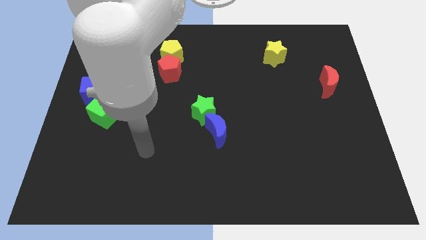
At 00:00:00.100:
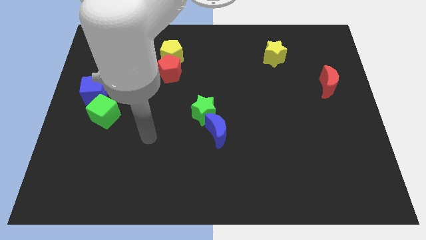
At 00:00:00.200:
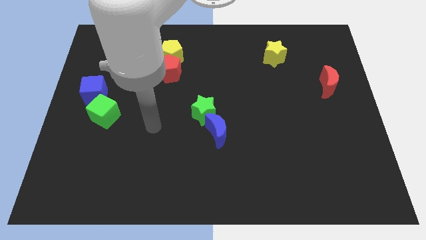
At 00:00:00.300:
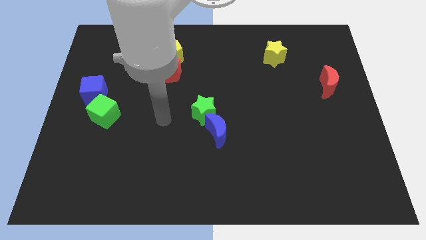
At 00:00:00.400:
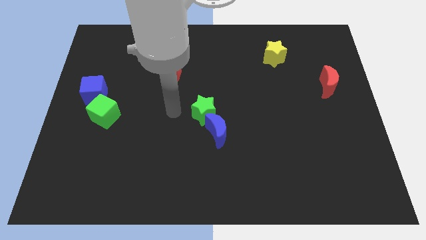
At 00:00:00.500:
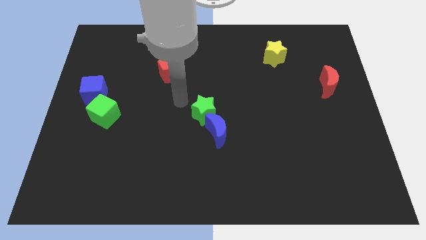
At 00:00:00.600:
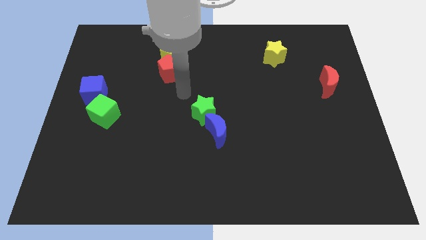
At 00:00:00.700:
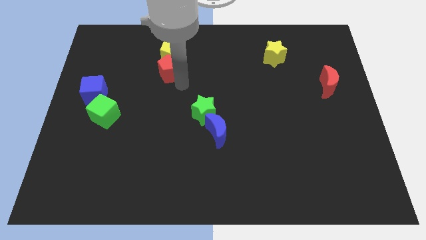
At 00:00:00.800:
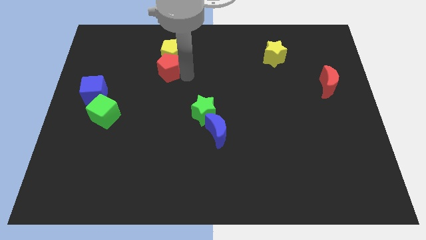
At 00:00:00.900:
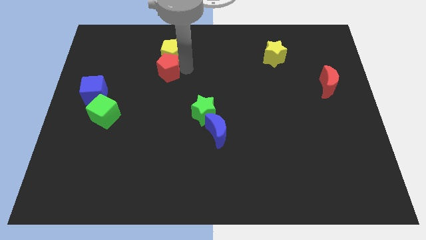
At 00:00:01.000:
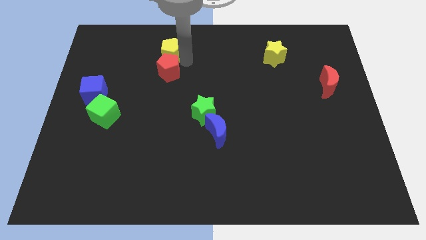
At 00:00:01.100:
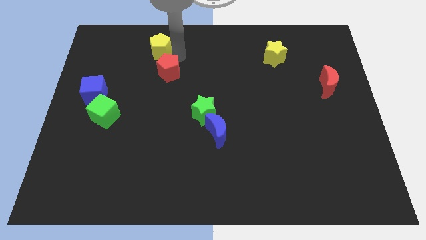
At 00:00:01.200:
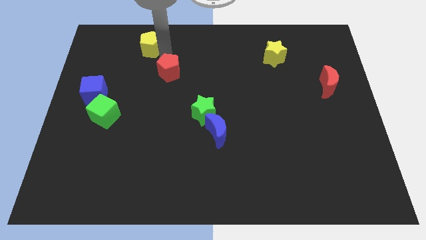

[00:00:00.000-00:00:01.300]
separate the red pentagon from the yellow pentagon

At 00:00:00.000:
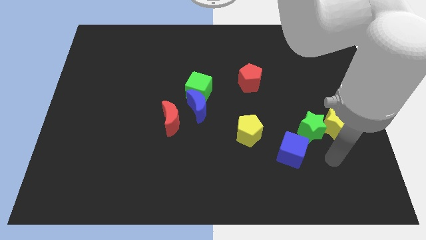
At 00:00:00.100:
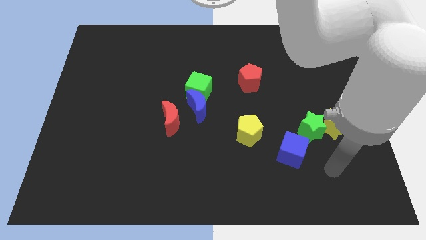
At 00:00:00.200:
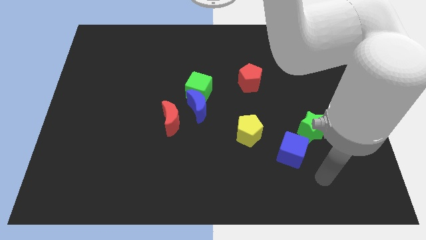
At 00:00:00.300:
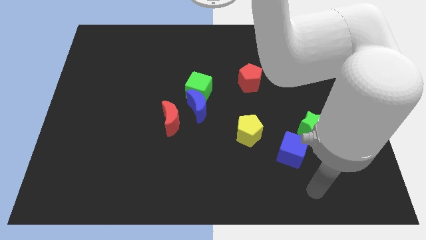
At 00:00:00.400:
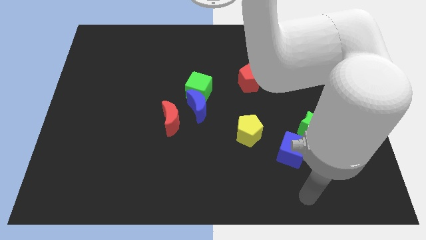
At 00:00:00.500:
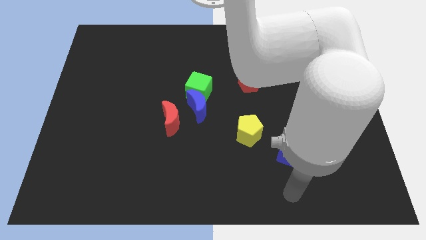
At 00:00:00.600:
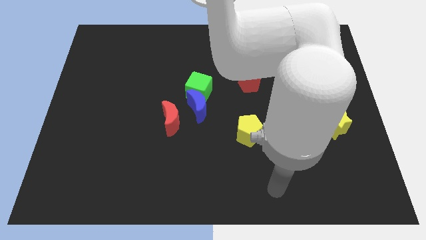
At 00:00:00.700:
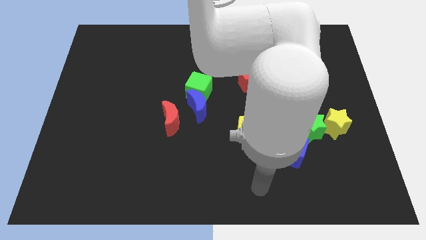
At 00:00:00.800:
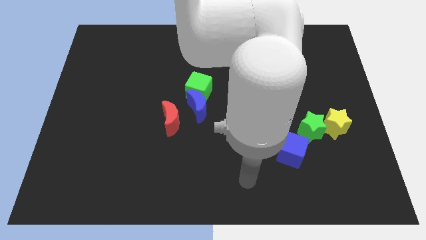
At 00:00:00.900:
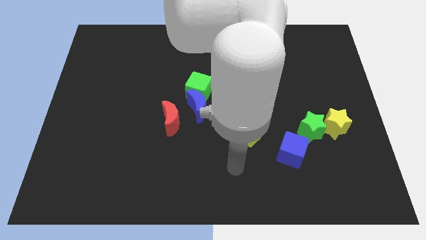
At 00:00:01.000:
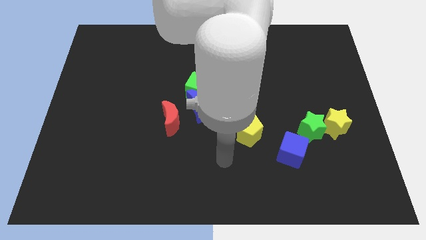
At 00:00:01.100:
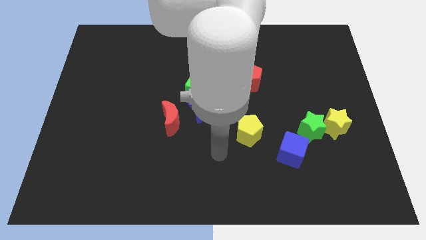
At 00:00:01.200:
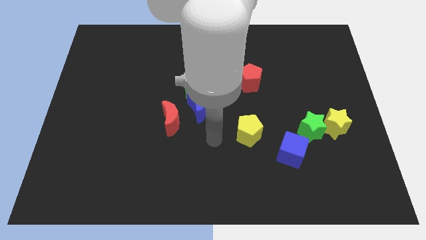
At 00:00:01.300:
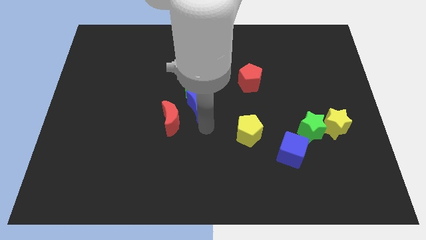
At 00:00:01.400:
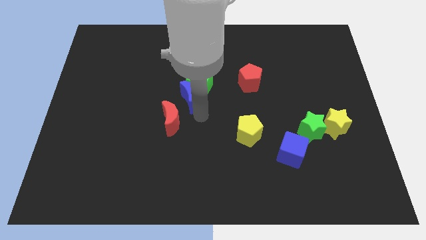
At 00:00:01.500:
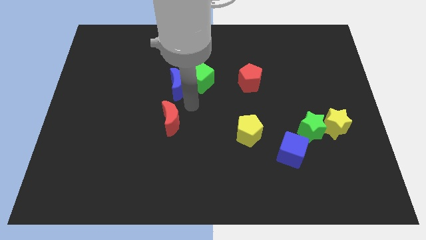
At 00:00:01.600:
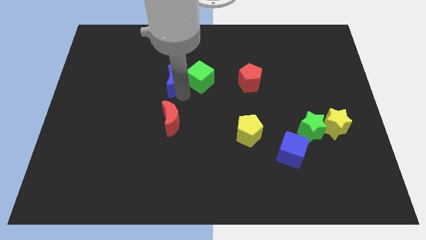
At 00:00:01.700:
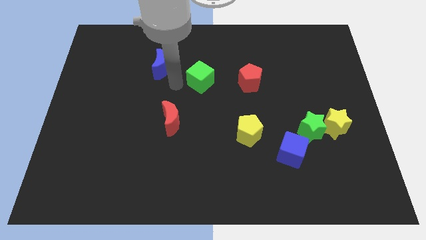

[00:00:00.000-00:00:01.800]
move the green cube away from the blue moon

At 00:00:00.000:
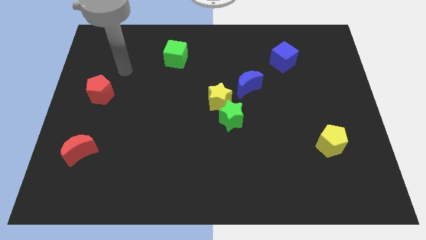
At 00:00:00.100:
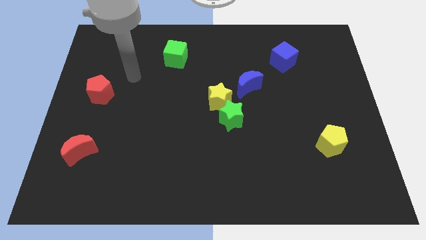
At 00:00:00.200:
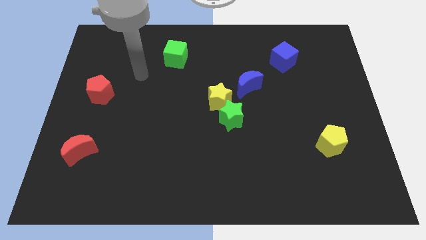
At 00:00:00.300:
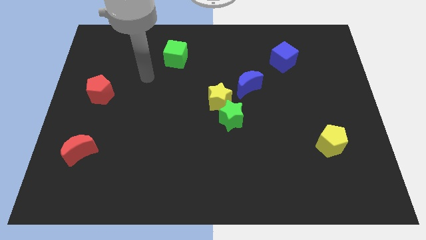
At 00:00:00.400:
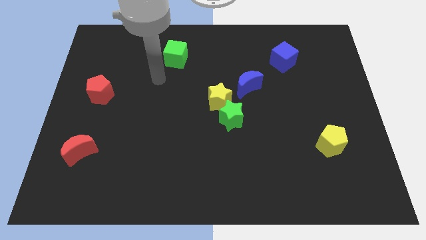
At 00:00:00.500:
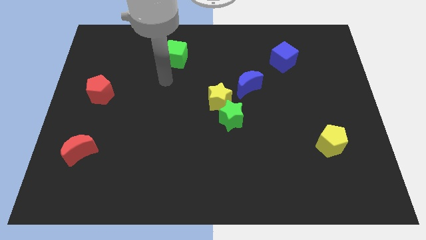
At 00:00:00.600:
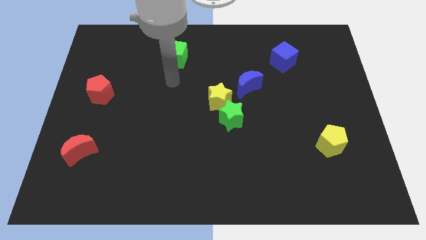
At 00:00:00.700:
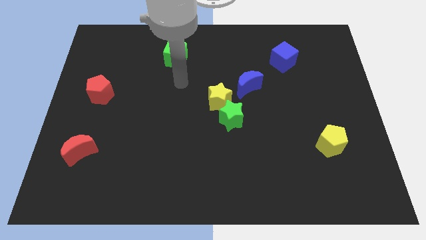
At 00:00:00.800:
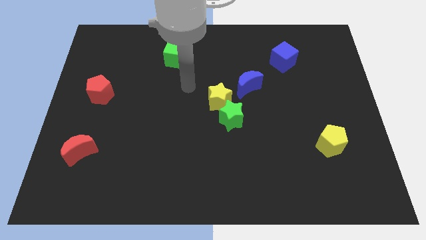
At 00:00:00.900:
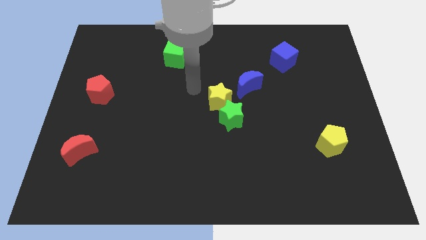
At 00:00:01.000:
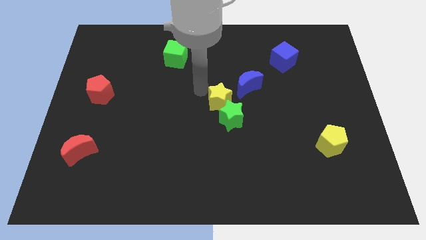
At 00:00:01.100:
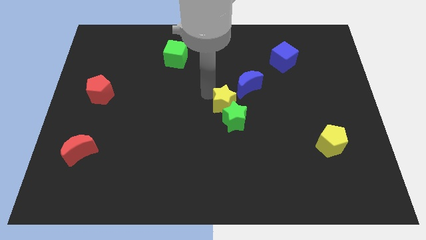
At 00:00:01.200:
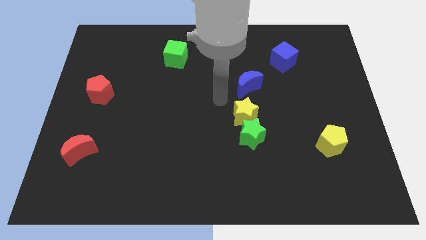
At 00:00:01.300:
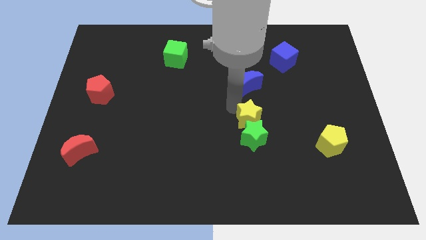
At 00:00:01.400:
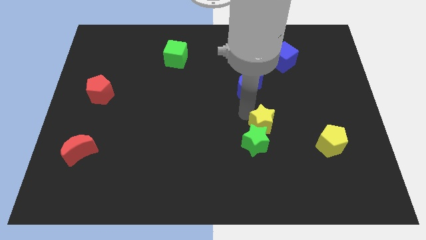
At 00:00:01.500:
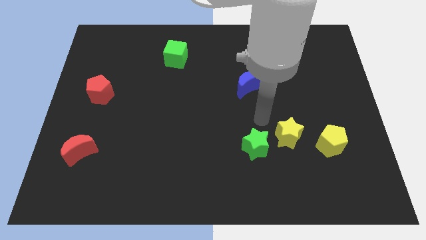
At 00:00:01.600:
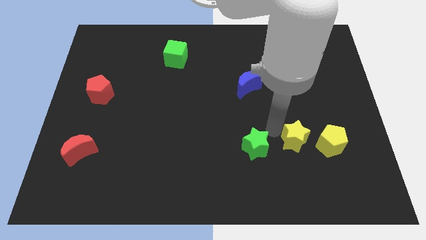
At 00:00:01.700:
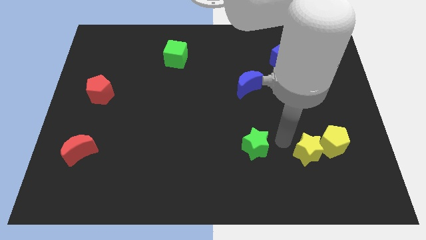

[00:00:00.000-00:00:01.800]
separate the green star from the yellow star

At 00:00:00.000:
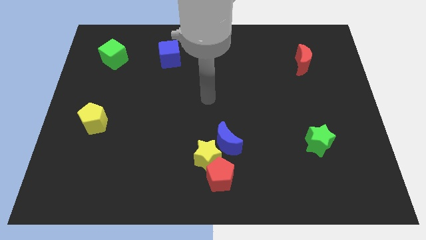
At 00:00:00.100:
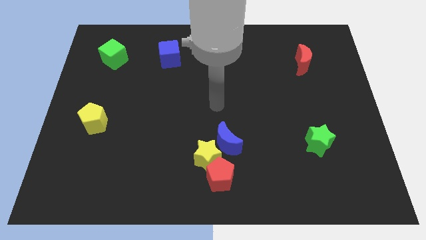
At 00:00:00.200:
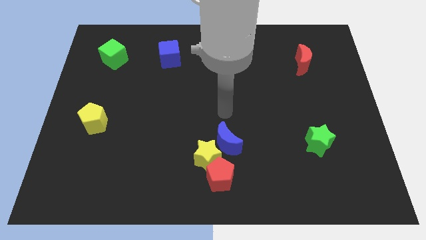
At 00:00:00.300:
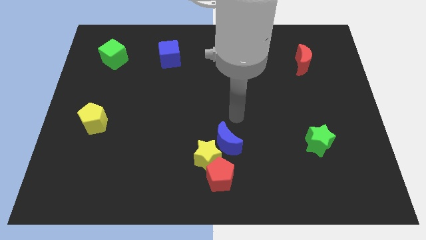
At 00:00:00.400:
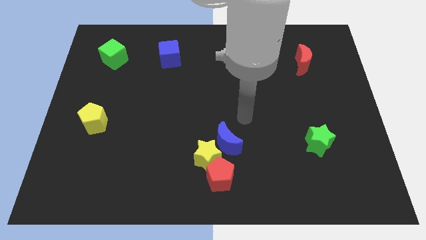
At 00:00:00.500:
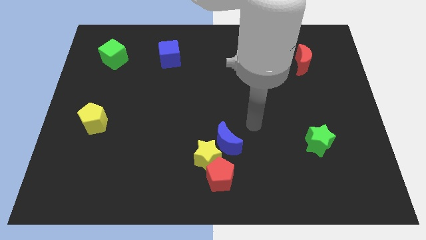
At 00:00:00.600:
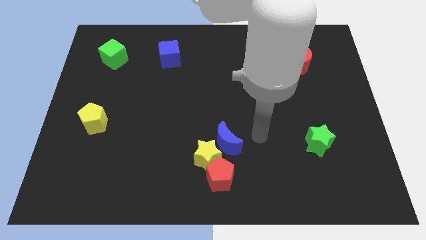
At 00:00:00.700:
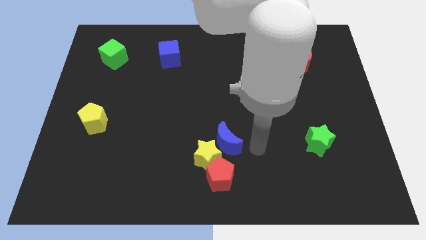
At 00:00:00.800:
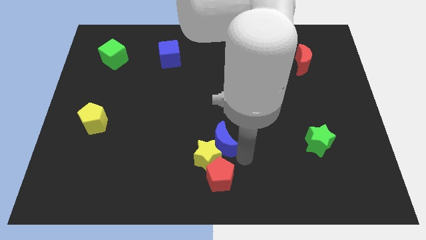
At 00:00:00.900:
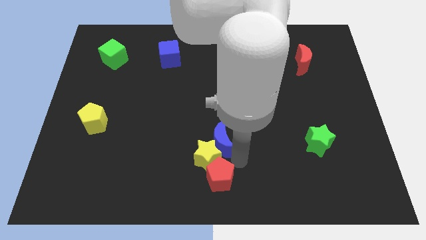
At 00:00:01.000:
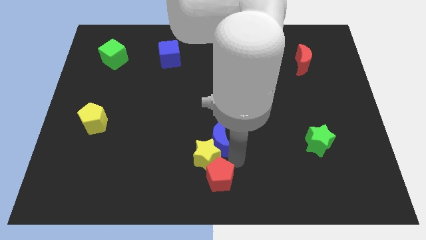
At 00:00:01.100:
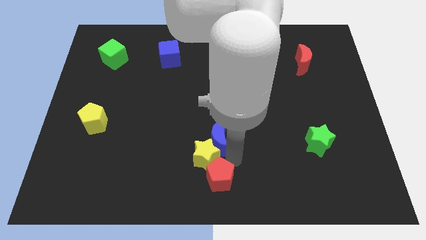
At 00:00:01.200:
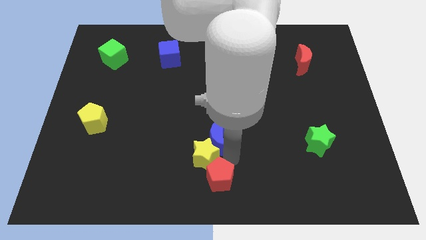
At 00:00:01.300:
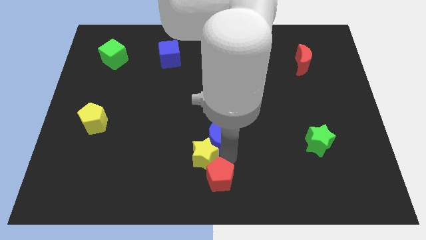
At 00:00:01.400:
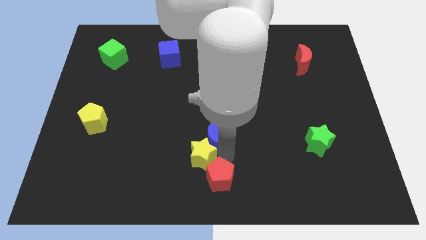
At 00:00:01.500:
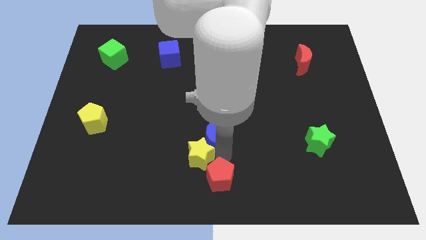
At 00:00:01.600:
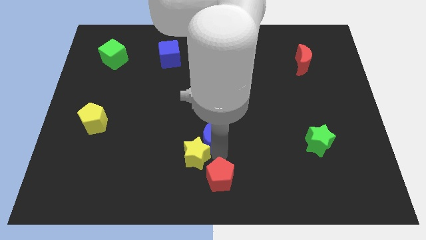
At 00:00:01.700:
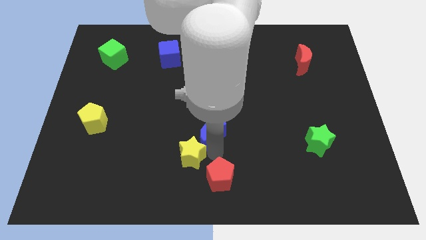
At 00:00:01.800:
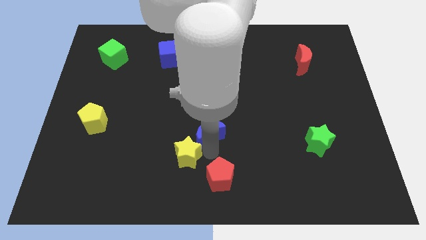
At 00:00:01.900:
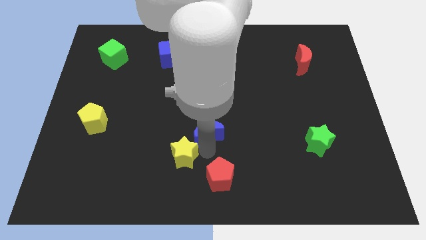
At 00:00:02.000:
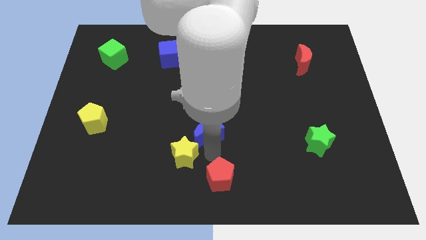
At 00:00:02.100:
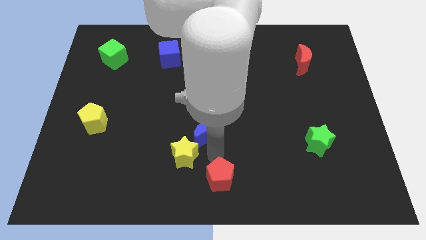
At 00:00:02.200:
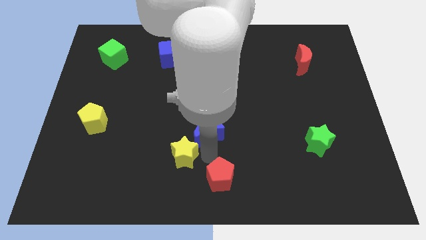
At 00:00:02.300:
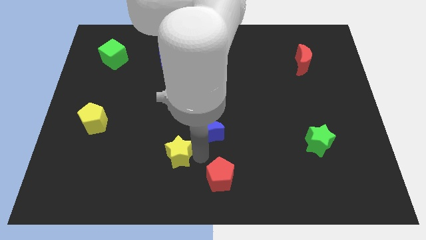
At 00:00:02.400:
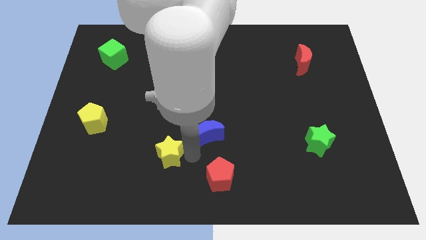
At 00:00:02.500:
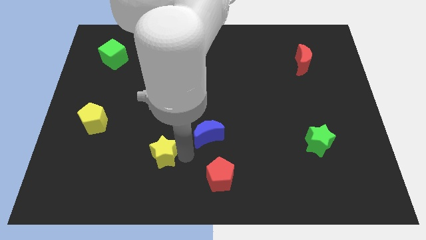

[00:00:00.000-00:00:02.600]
separate the yellow star from the blue moon and red pentagon

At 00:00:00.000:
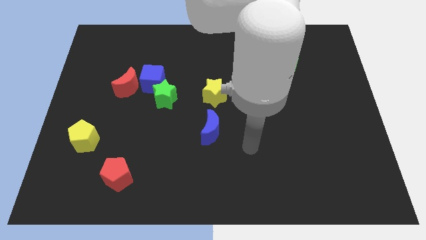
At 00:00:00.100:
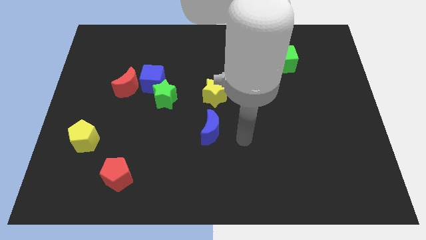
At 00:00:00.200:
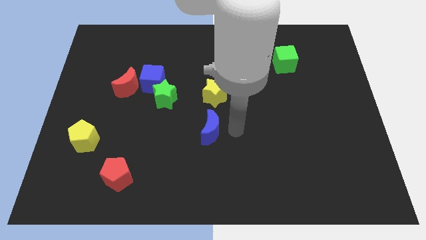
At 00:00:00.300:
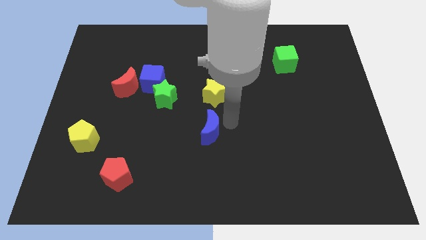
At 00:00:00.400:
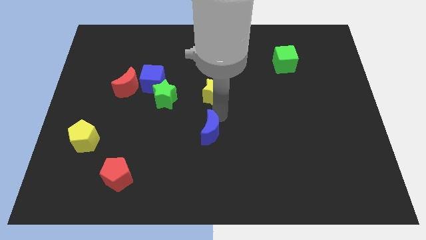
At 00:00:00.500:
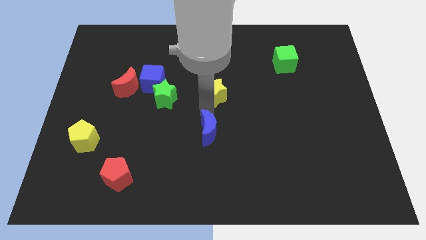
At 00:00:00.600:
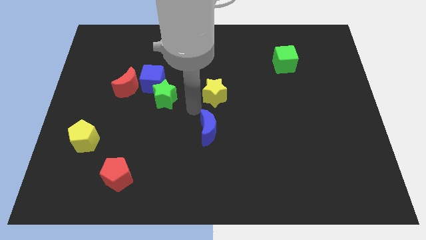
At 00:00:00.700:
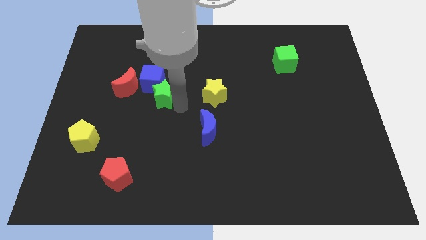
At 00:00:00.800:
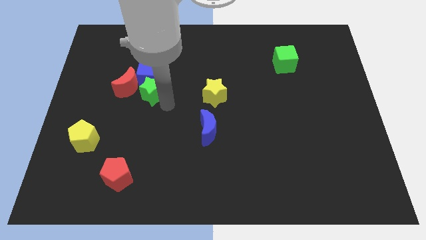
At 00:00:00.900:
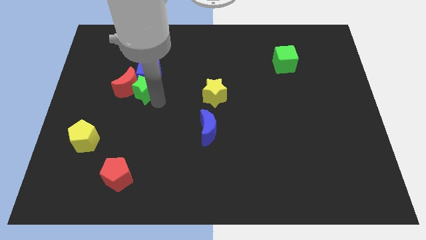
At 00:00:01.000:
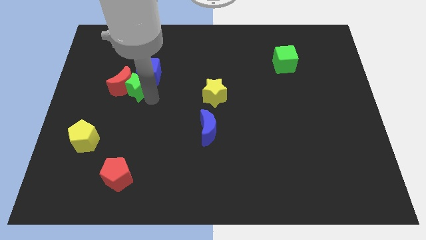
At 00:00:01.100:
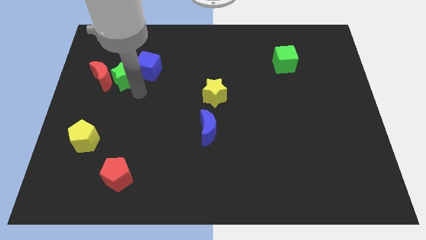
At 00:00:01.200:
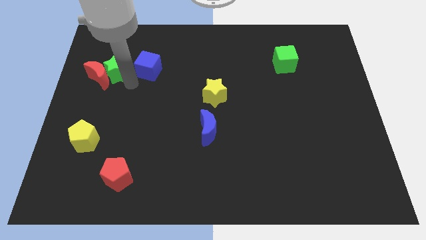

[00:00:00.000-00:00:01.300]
move the blue cube away from the green star and red moon

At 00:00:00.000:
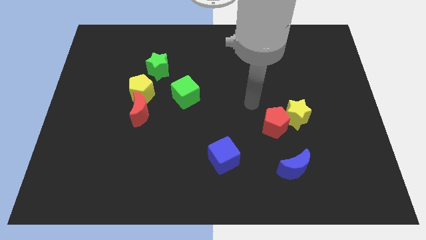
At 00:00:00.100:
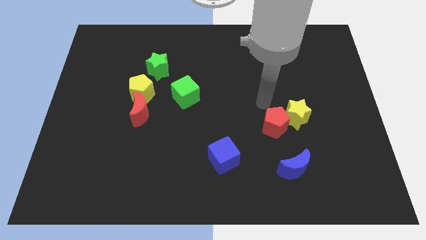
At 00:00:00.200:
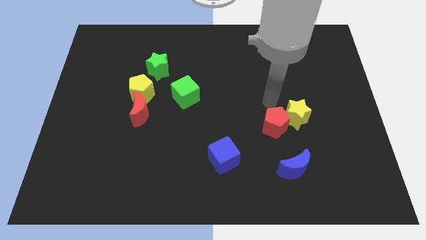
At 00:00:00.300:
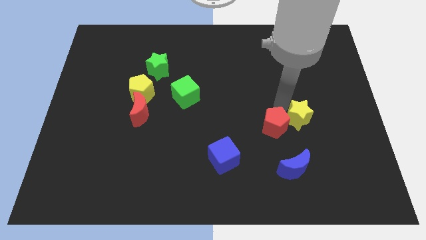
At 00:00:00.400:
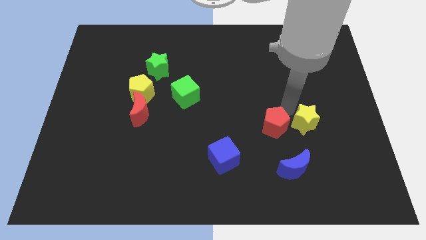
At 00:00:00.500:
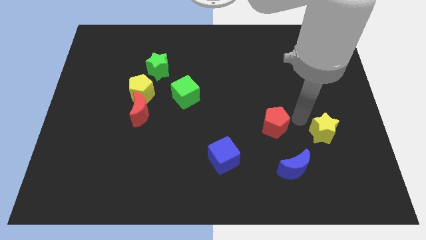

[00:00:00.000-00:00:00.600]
move the red pentagon away from the yellow star
